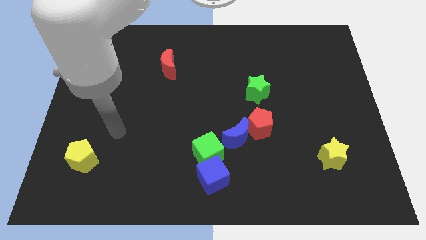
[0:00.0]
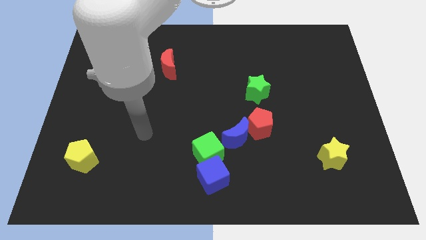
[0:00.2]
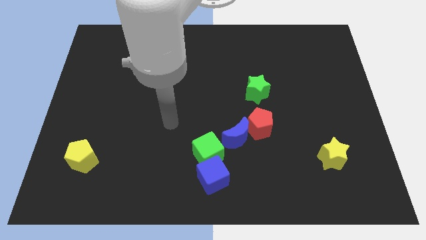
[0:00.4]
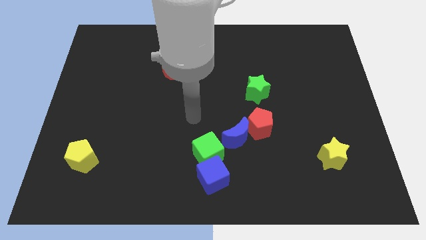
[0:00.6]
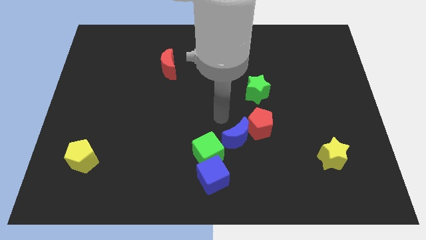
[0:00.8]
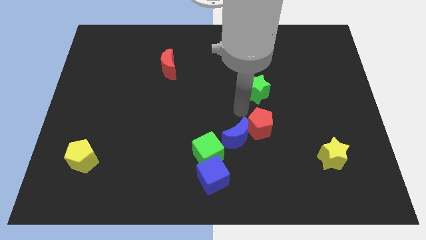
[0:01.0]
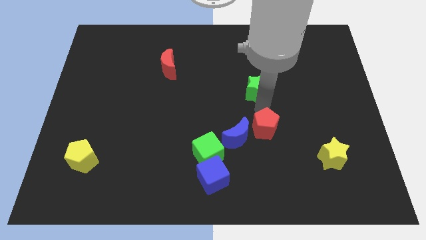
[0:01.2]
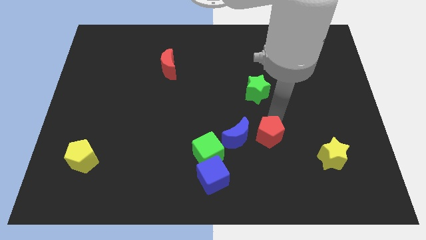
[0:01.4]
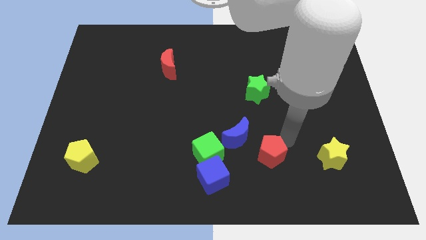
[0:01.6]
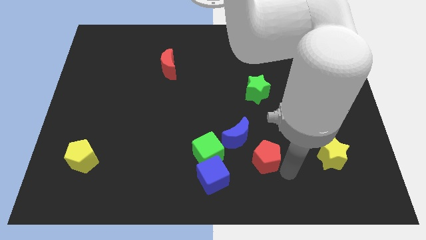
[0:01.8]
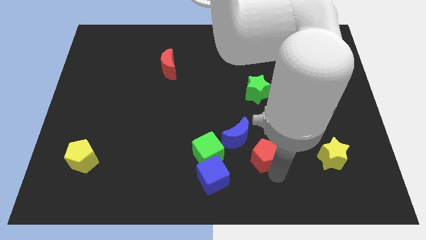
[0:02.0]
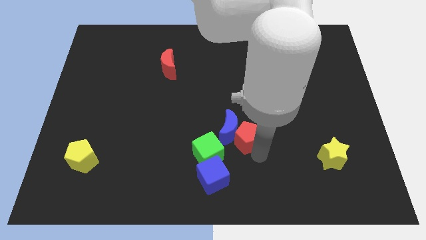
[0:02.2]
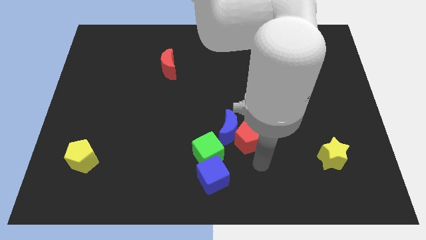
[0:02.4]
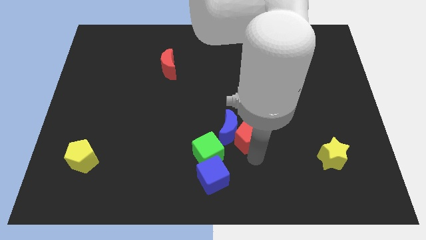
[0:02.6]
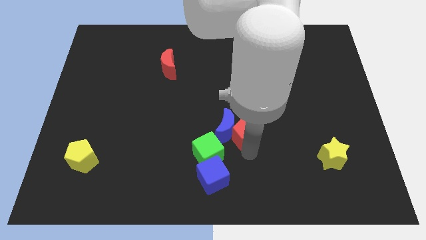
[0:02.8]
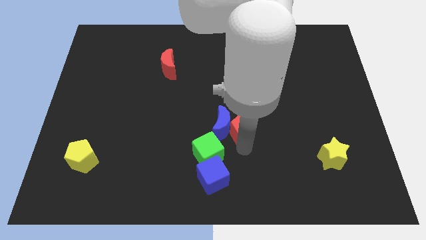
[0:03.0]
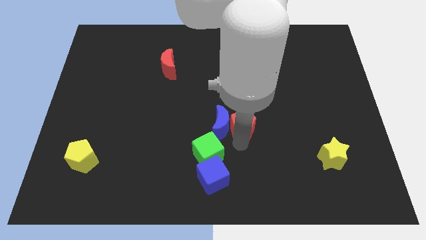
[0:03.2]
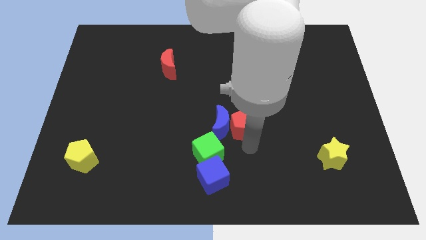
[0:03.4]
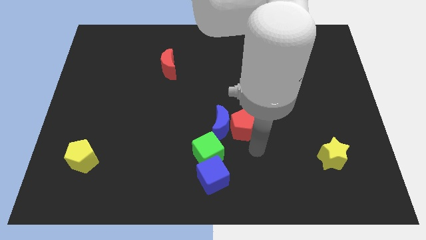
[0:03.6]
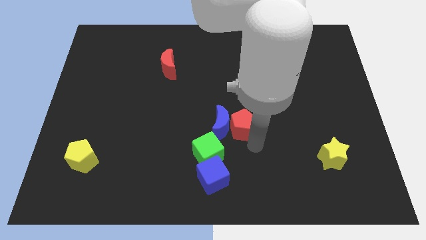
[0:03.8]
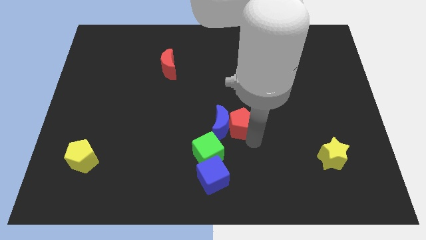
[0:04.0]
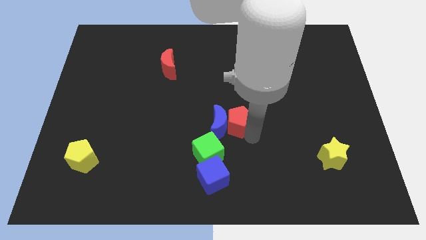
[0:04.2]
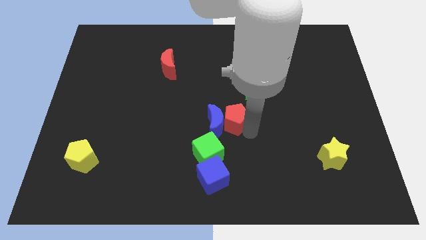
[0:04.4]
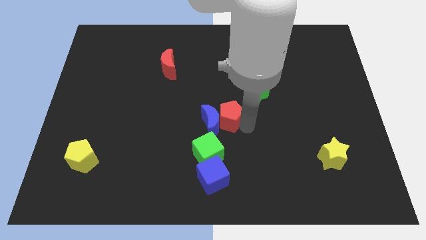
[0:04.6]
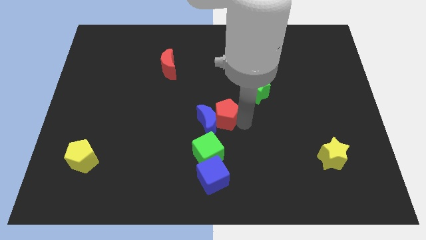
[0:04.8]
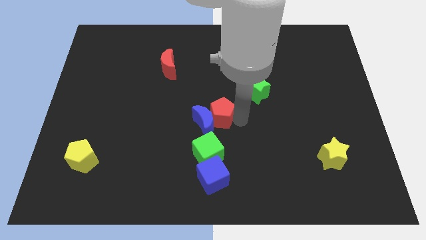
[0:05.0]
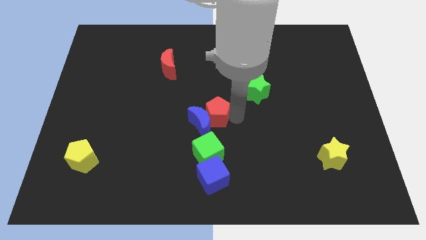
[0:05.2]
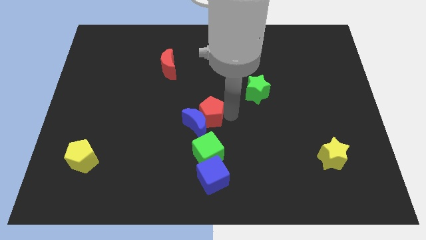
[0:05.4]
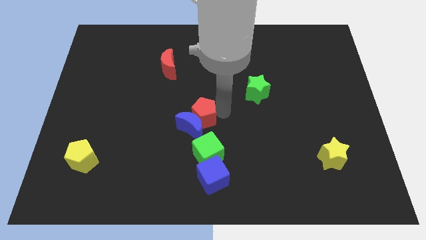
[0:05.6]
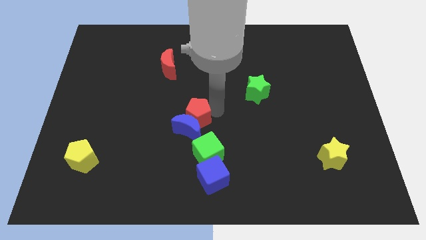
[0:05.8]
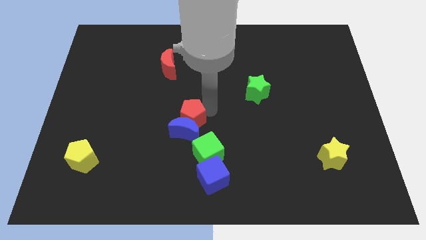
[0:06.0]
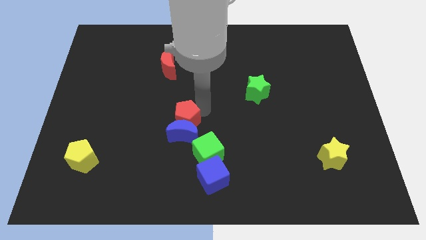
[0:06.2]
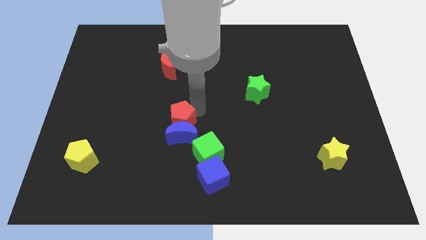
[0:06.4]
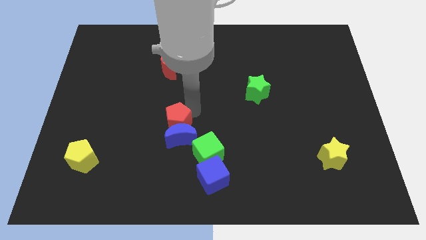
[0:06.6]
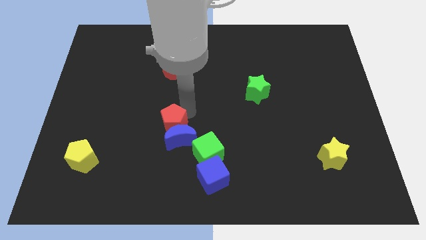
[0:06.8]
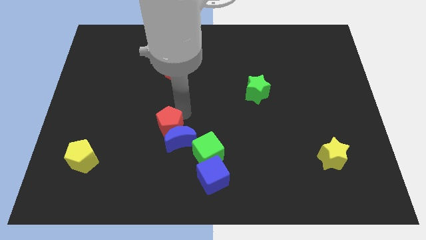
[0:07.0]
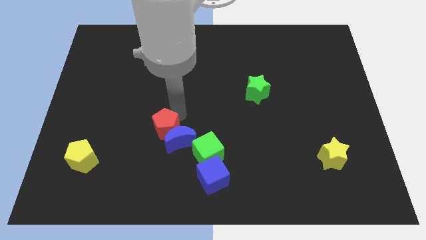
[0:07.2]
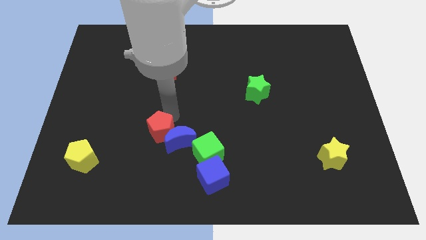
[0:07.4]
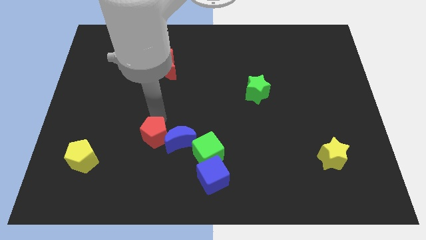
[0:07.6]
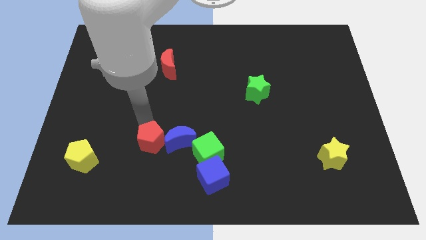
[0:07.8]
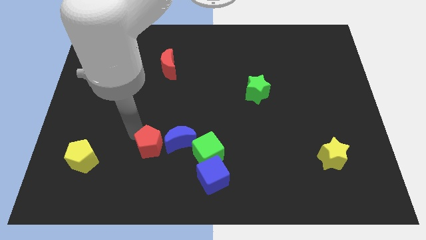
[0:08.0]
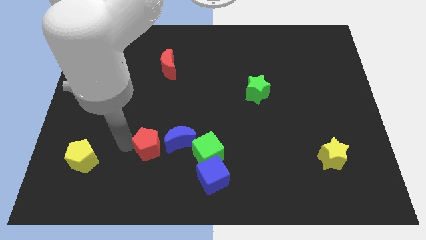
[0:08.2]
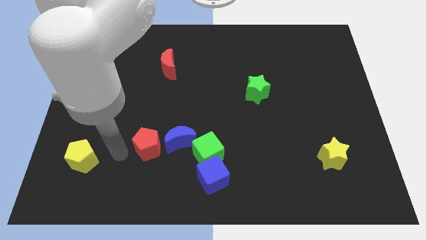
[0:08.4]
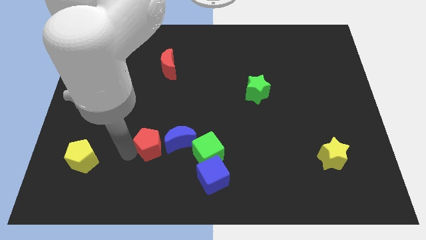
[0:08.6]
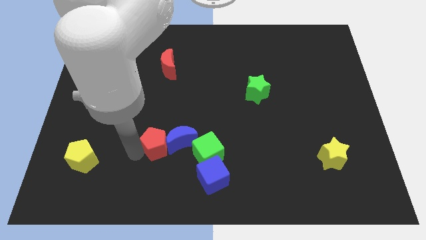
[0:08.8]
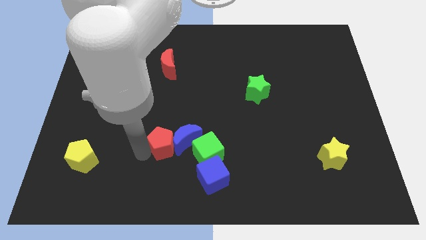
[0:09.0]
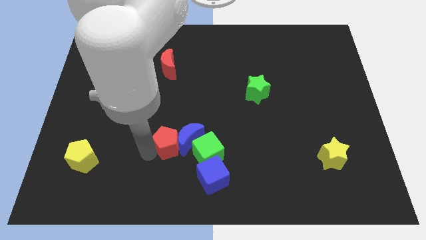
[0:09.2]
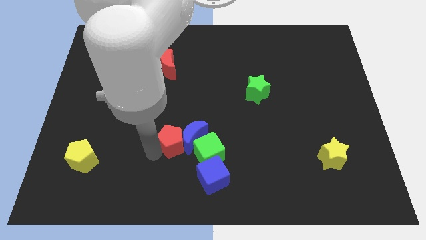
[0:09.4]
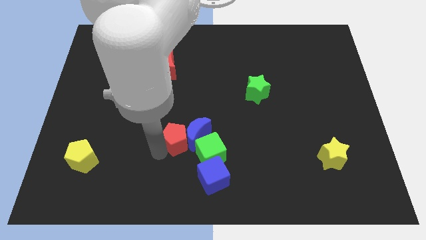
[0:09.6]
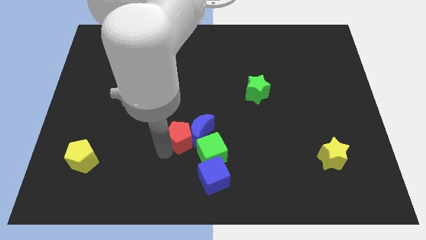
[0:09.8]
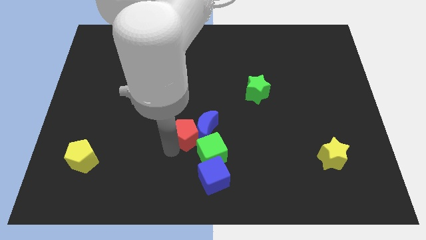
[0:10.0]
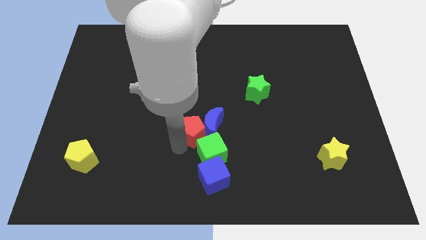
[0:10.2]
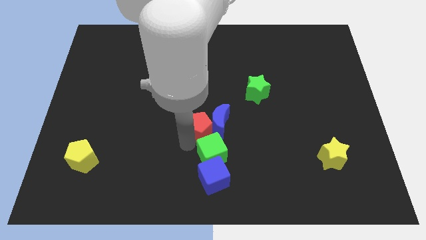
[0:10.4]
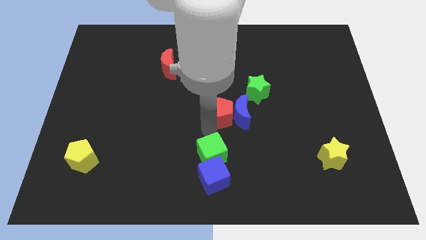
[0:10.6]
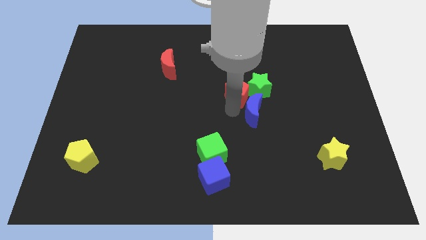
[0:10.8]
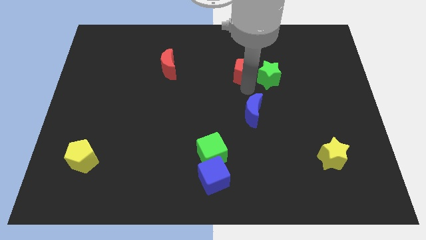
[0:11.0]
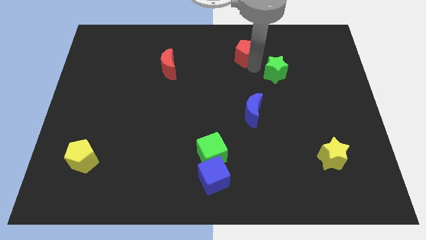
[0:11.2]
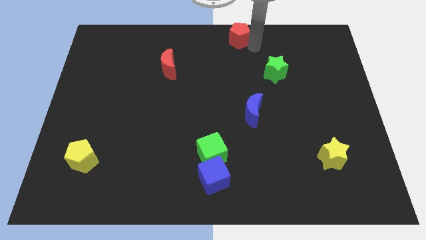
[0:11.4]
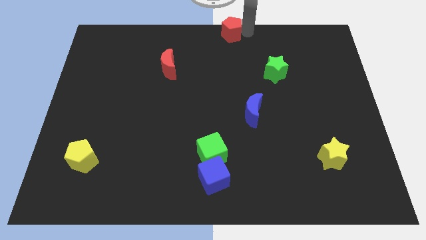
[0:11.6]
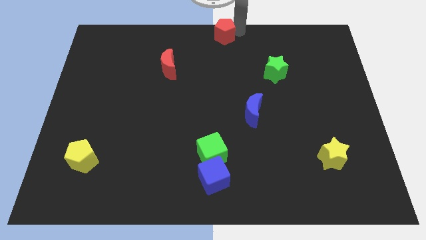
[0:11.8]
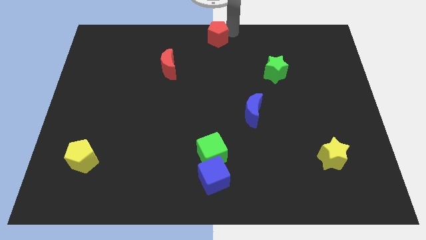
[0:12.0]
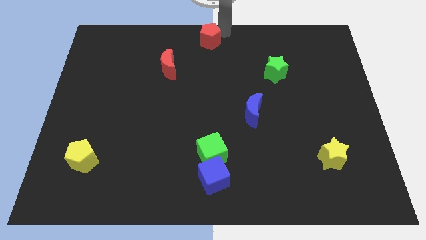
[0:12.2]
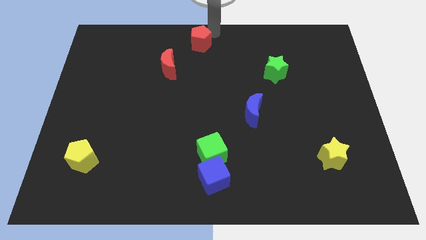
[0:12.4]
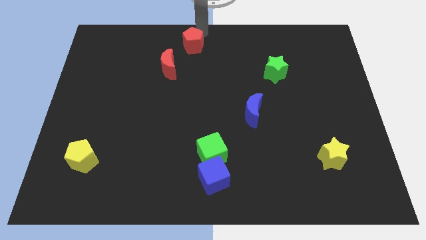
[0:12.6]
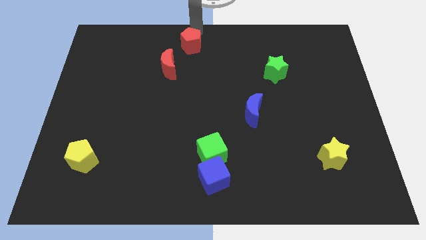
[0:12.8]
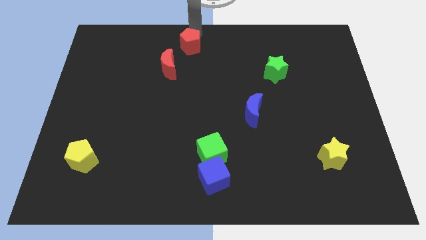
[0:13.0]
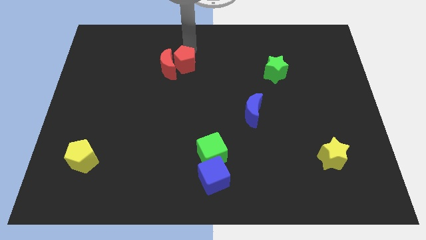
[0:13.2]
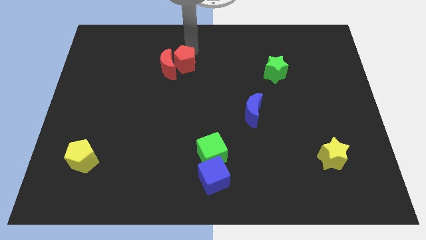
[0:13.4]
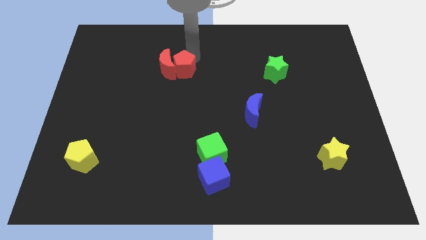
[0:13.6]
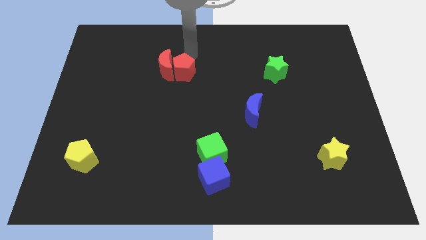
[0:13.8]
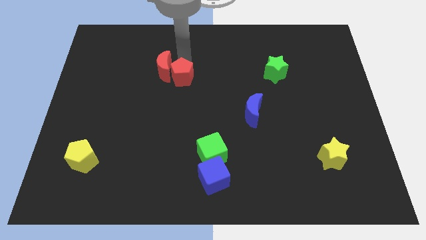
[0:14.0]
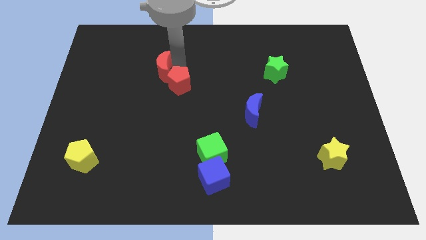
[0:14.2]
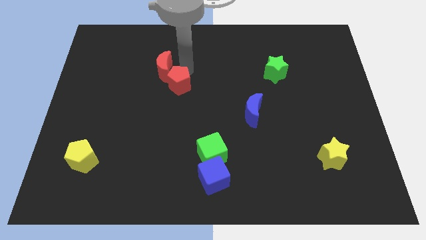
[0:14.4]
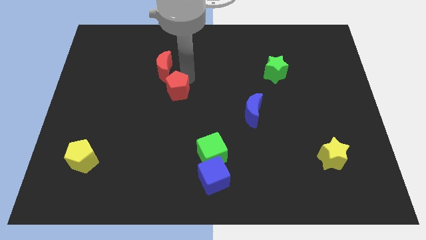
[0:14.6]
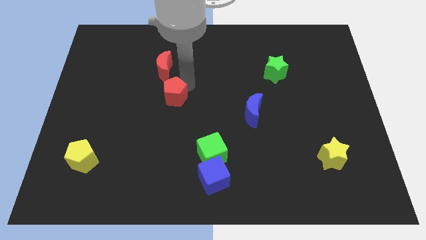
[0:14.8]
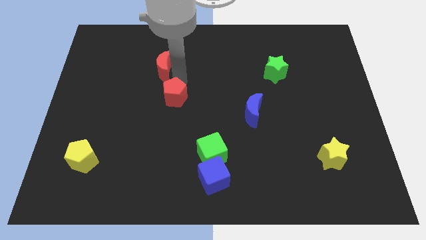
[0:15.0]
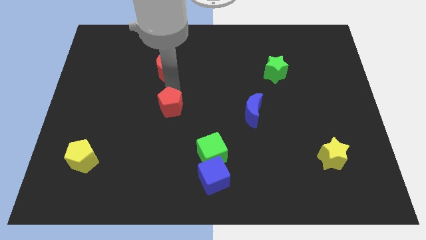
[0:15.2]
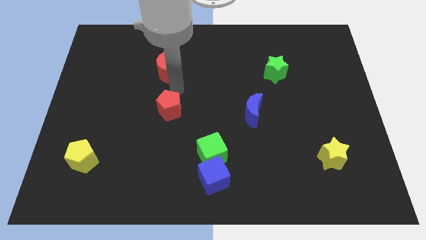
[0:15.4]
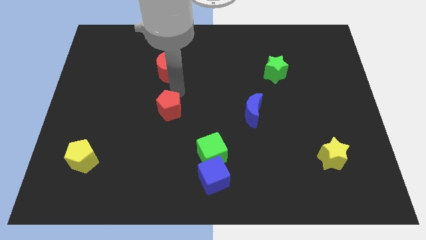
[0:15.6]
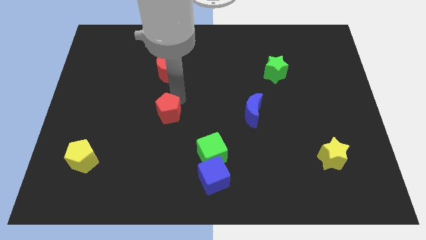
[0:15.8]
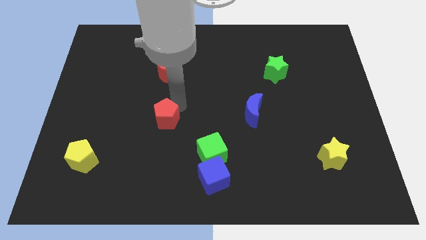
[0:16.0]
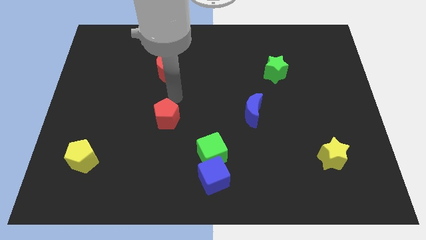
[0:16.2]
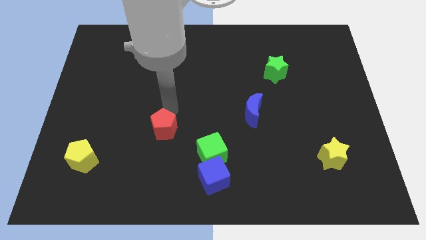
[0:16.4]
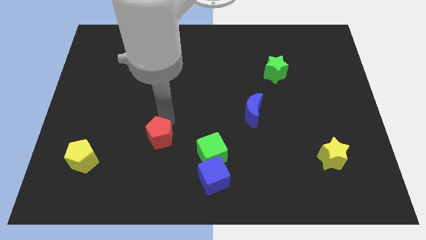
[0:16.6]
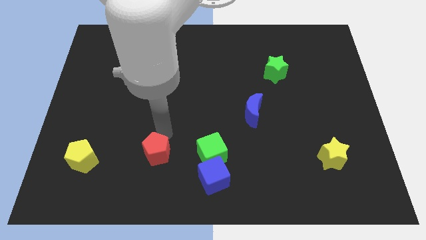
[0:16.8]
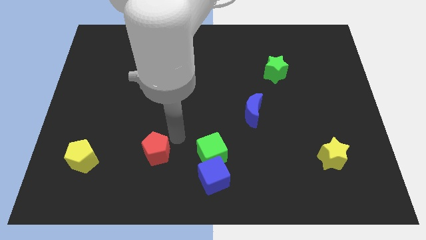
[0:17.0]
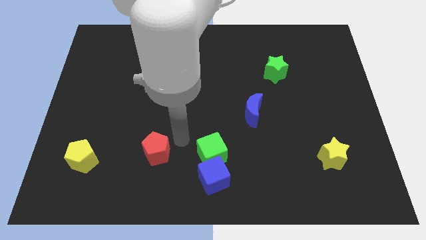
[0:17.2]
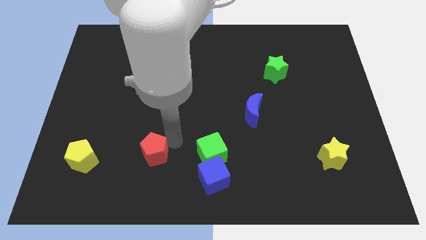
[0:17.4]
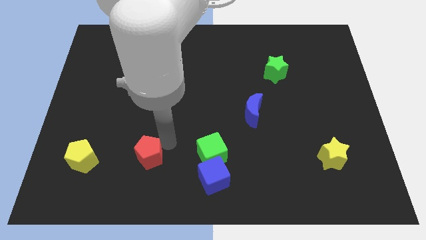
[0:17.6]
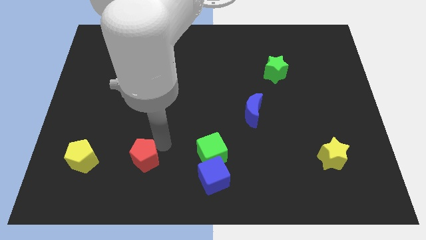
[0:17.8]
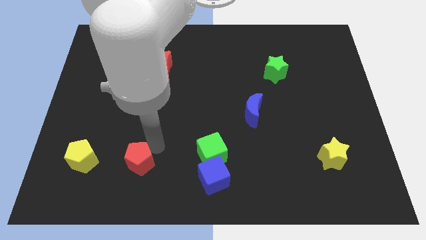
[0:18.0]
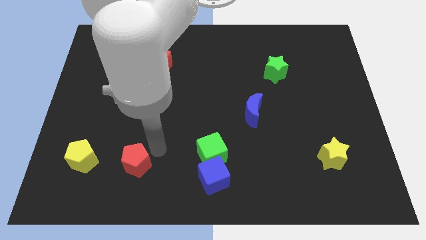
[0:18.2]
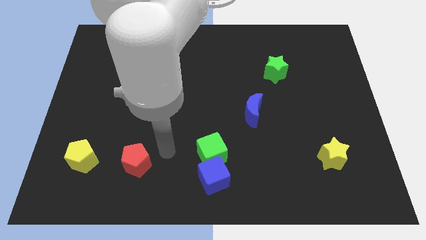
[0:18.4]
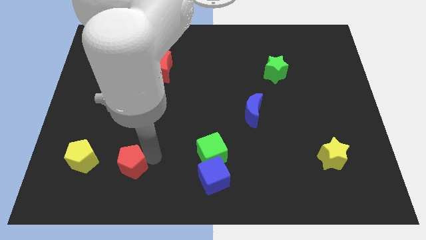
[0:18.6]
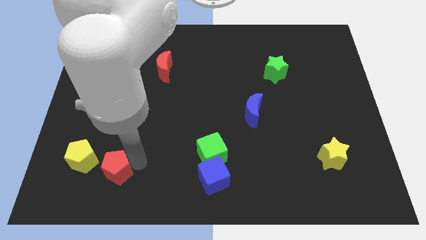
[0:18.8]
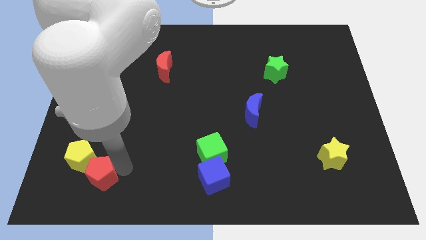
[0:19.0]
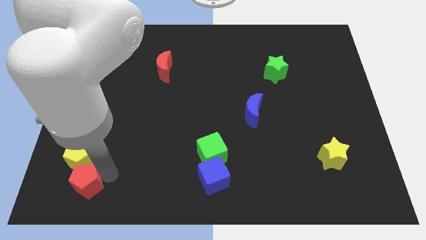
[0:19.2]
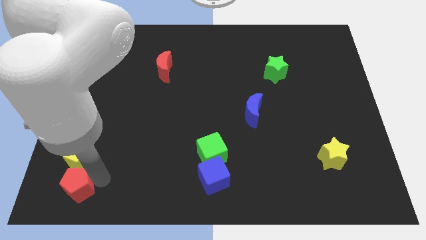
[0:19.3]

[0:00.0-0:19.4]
push the red pentagon to the bottom left corner
